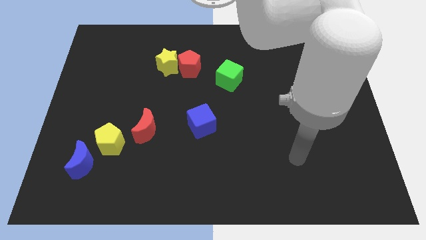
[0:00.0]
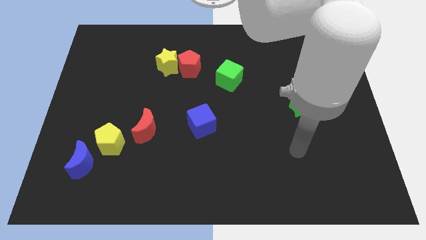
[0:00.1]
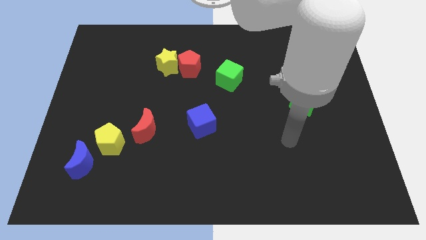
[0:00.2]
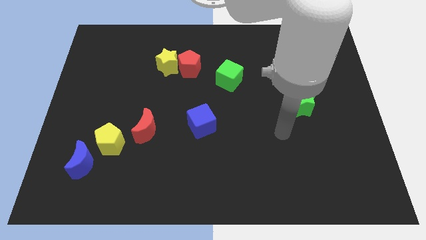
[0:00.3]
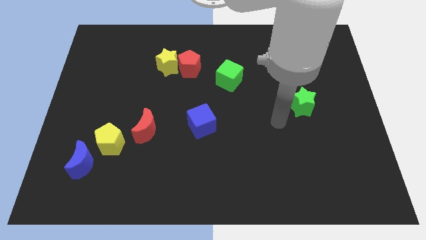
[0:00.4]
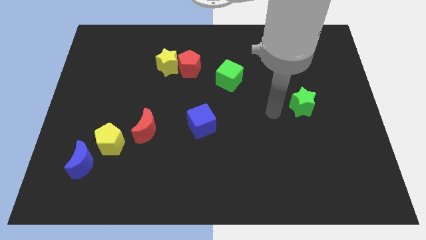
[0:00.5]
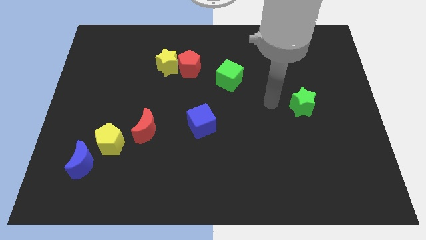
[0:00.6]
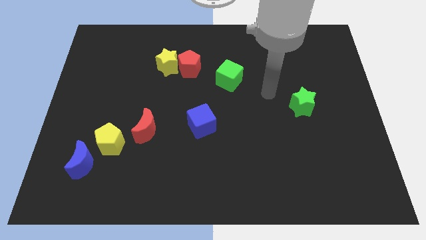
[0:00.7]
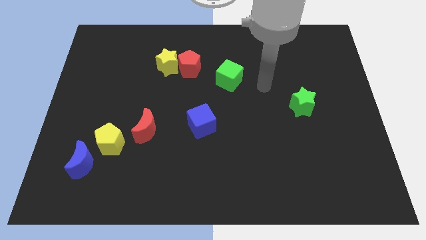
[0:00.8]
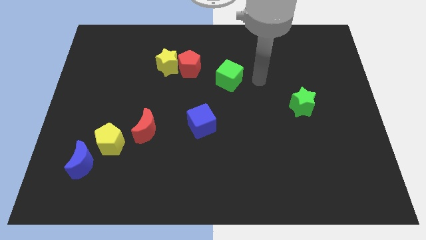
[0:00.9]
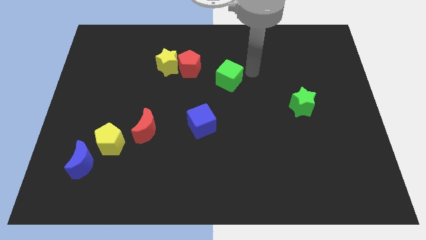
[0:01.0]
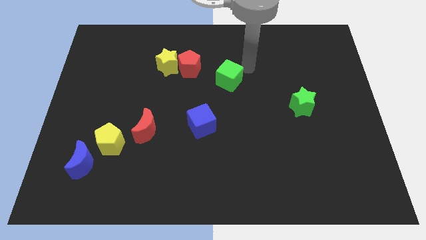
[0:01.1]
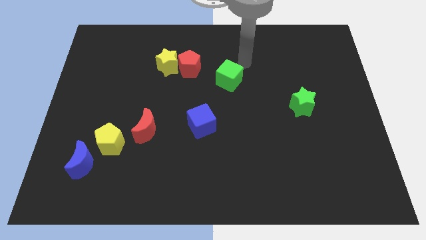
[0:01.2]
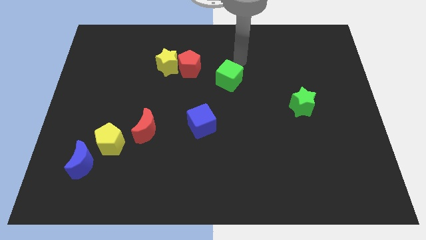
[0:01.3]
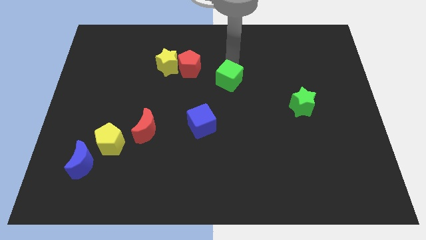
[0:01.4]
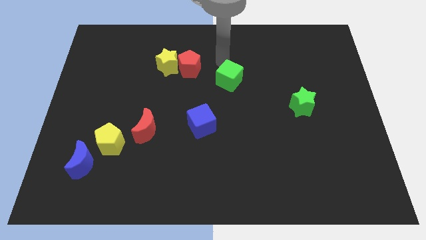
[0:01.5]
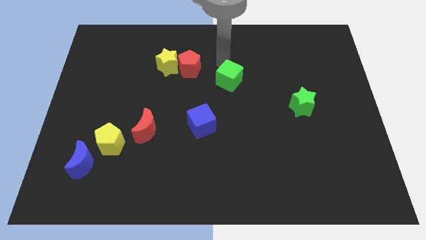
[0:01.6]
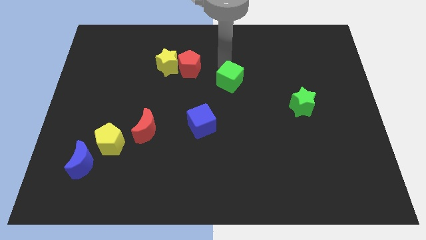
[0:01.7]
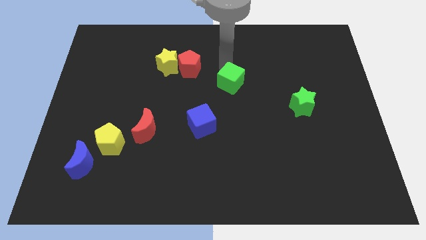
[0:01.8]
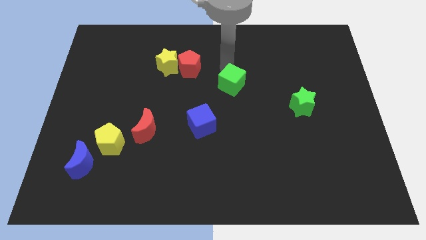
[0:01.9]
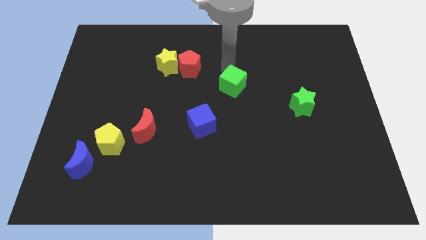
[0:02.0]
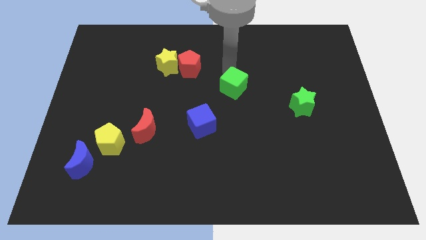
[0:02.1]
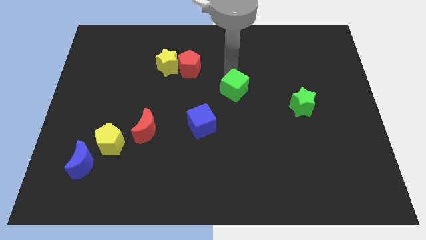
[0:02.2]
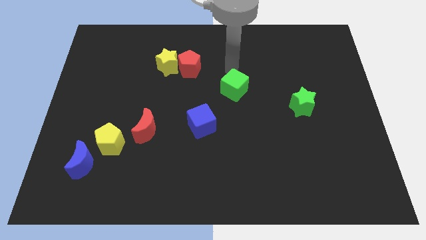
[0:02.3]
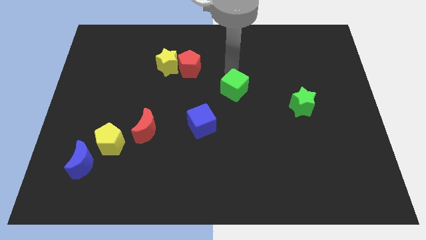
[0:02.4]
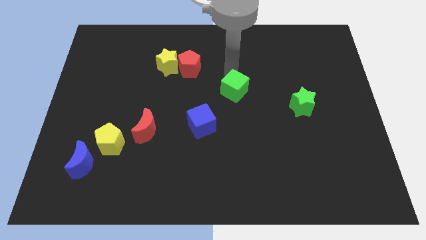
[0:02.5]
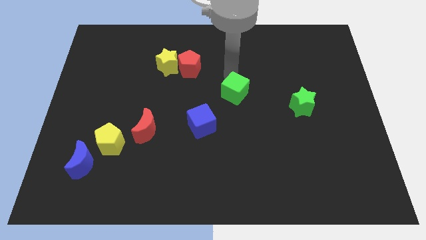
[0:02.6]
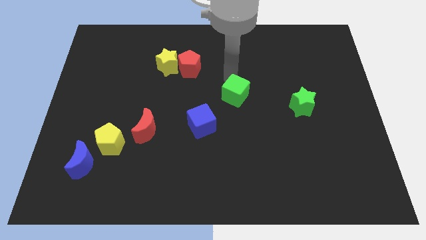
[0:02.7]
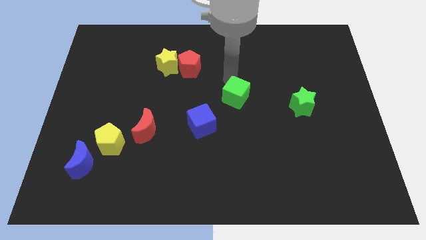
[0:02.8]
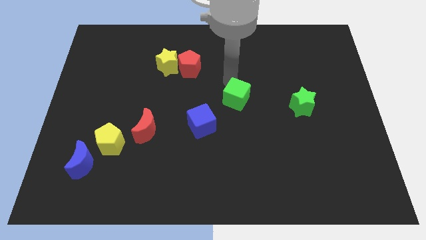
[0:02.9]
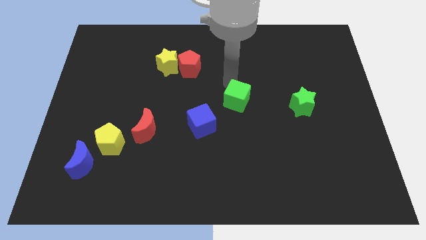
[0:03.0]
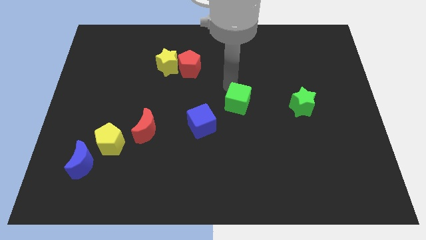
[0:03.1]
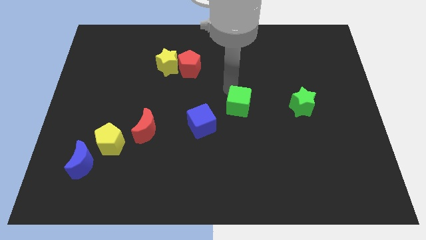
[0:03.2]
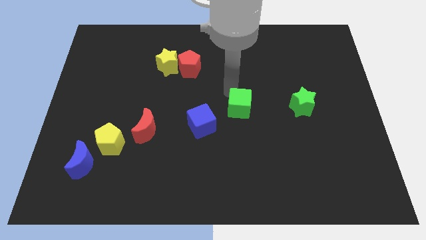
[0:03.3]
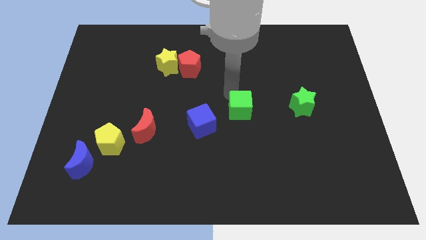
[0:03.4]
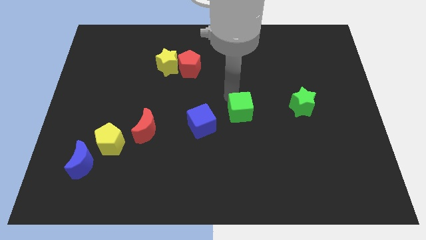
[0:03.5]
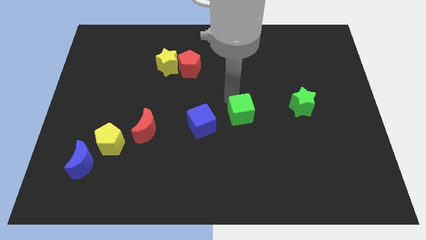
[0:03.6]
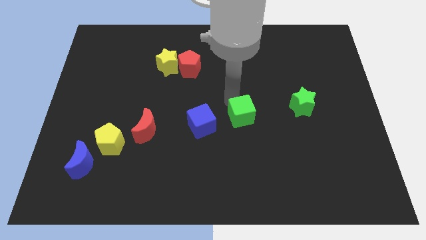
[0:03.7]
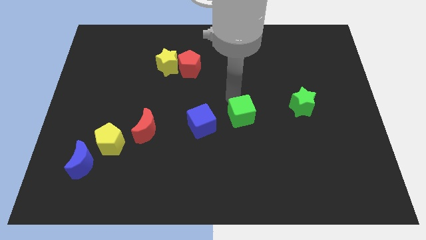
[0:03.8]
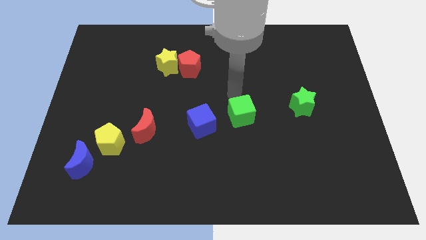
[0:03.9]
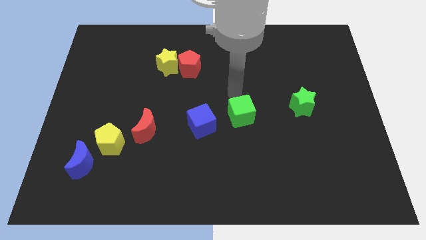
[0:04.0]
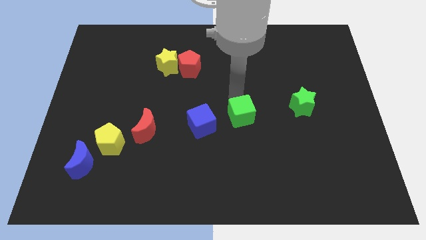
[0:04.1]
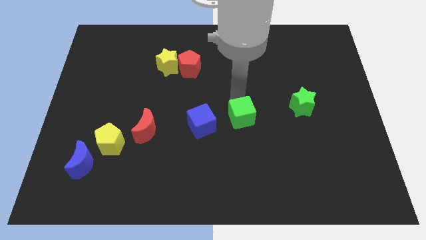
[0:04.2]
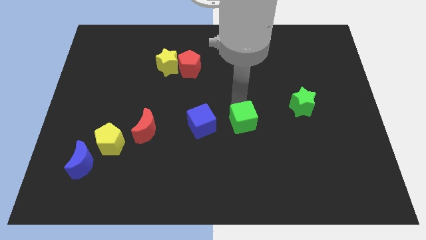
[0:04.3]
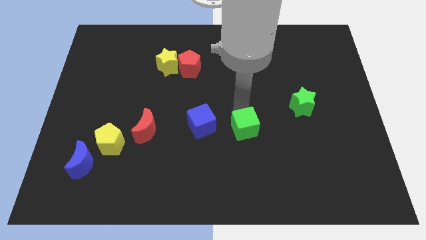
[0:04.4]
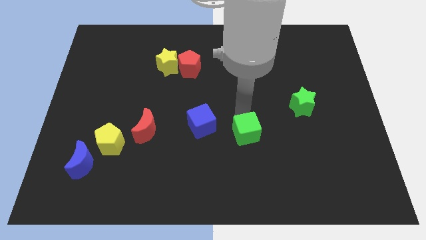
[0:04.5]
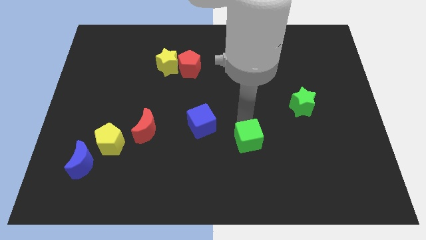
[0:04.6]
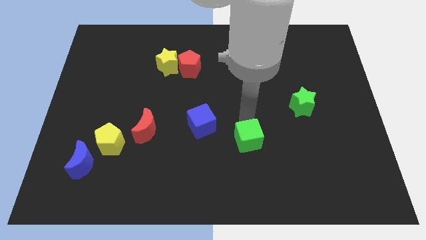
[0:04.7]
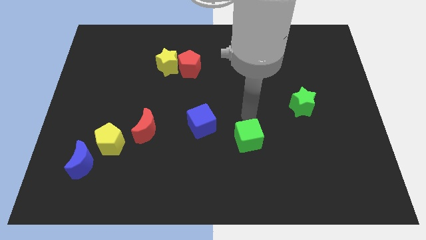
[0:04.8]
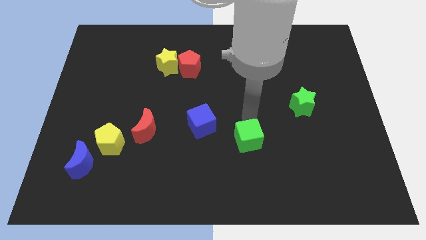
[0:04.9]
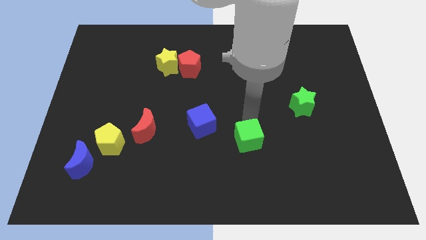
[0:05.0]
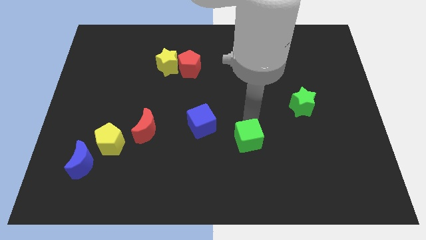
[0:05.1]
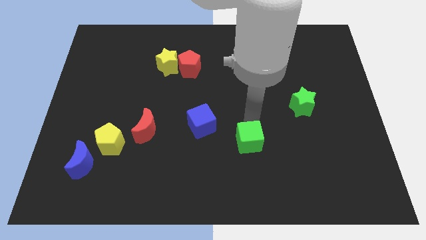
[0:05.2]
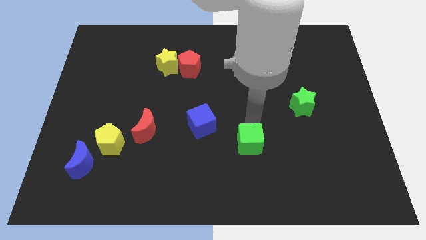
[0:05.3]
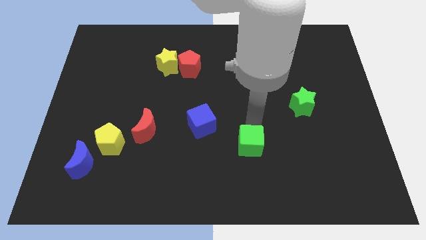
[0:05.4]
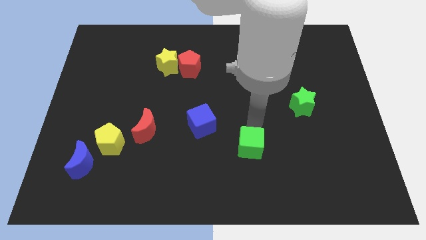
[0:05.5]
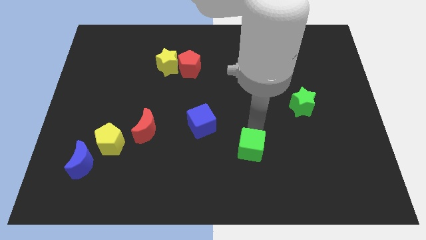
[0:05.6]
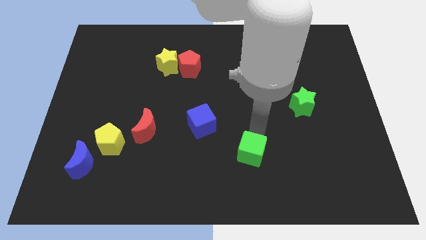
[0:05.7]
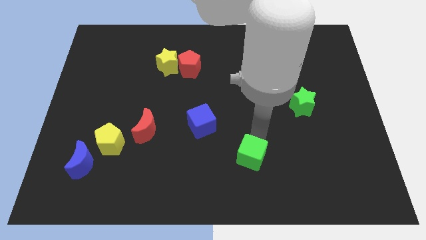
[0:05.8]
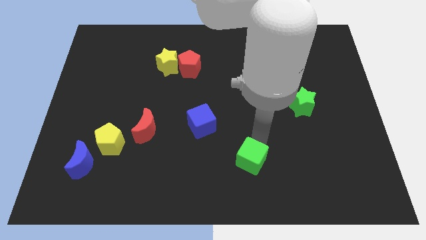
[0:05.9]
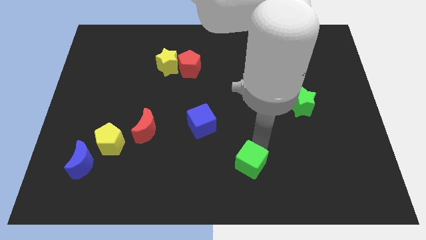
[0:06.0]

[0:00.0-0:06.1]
put the green cube to the bottom side
